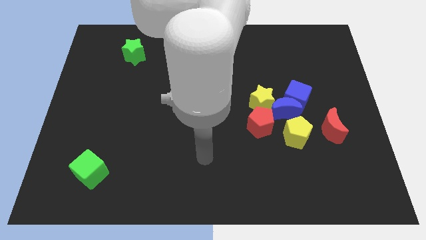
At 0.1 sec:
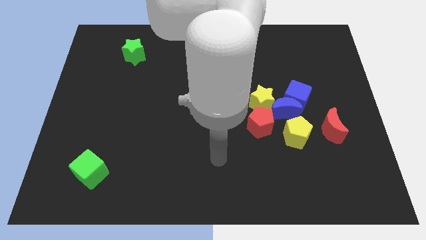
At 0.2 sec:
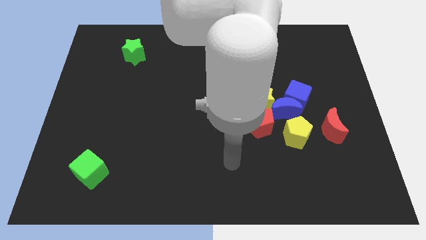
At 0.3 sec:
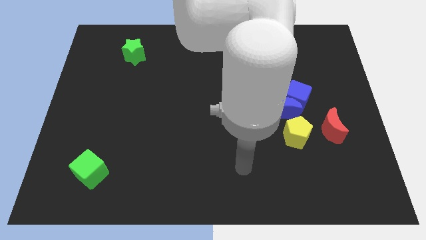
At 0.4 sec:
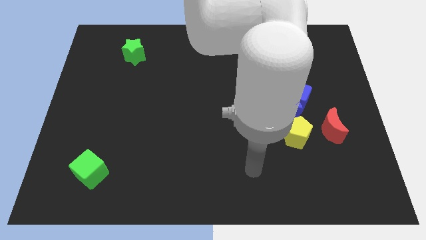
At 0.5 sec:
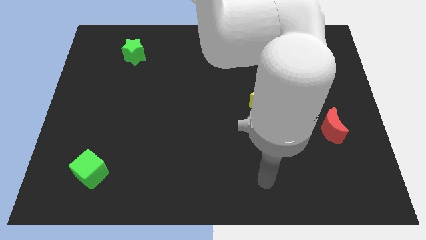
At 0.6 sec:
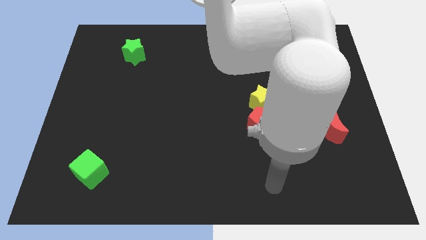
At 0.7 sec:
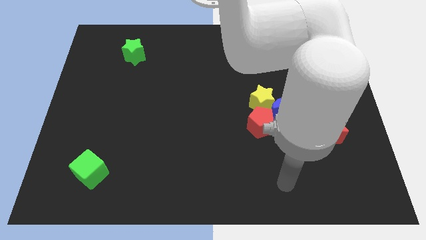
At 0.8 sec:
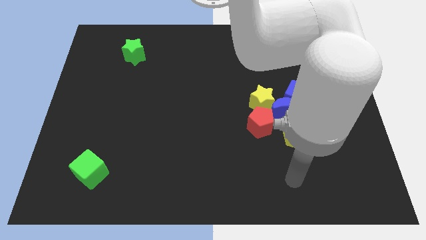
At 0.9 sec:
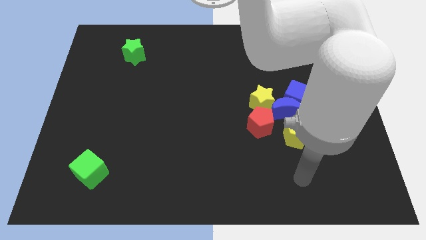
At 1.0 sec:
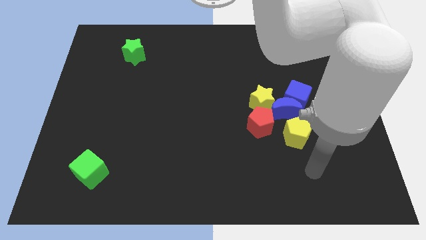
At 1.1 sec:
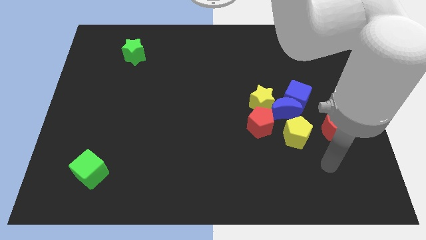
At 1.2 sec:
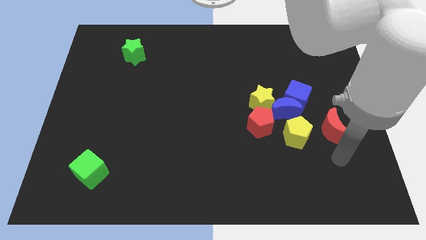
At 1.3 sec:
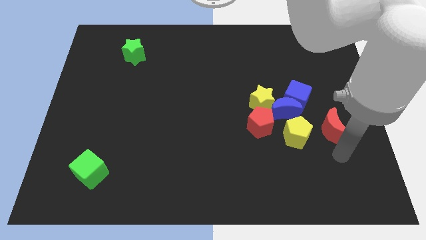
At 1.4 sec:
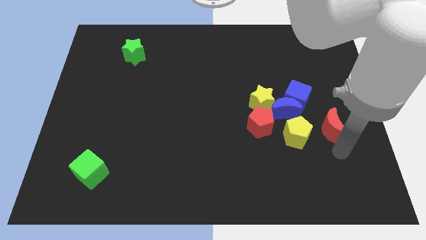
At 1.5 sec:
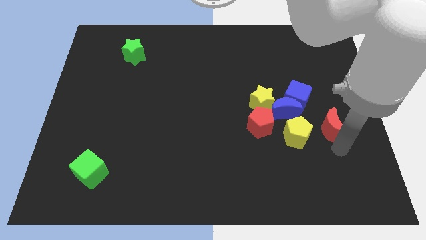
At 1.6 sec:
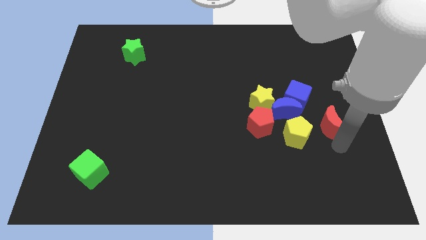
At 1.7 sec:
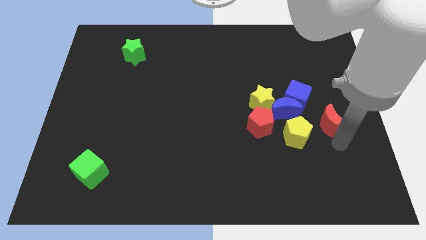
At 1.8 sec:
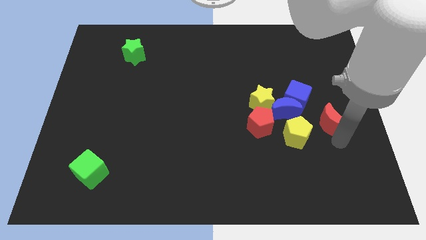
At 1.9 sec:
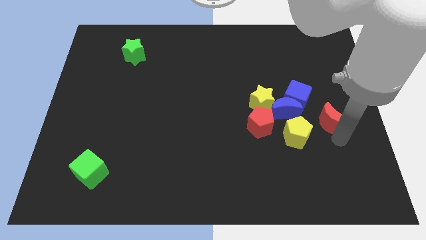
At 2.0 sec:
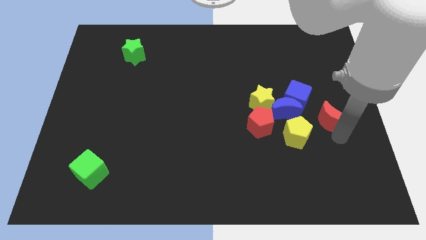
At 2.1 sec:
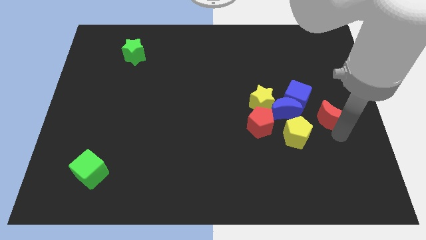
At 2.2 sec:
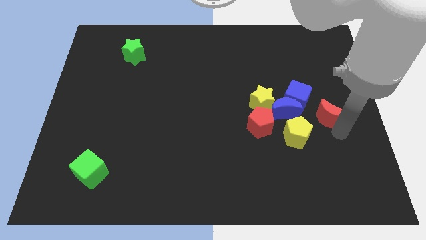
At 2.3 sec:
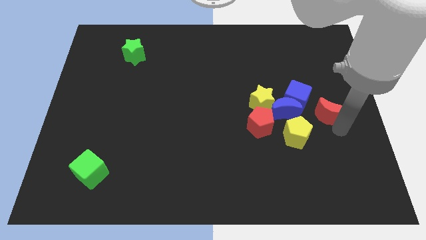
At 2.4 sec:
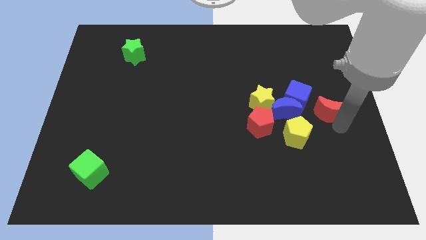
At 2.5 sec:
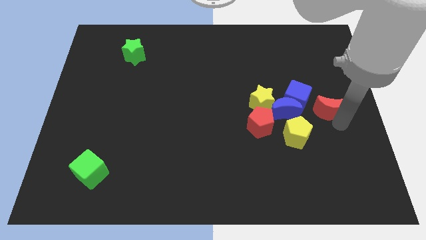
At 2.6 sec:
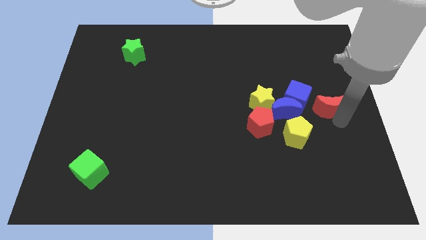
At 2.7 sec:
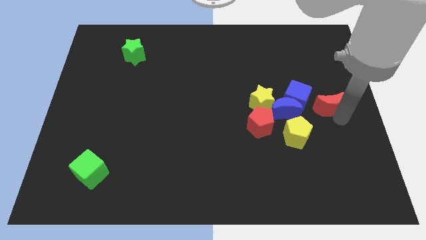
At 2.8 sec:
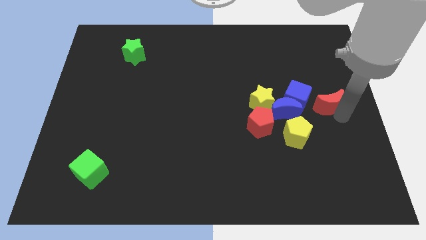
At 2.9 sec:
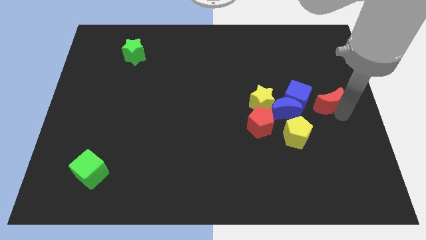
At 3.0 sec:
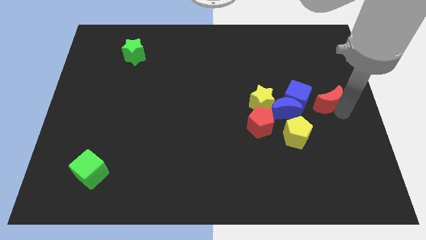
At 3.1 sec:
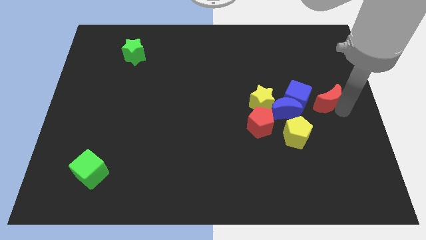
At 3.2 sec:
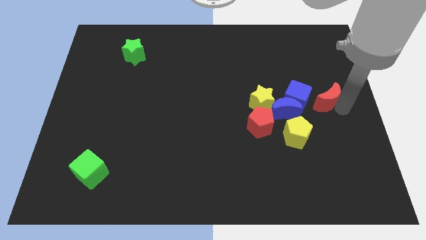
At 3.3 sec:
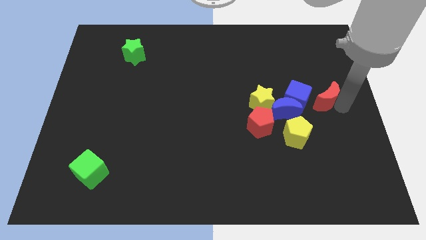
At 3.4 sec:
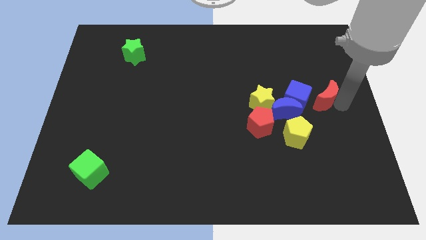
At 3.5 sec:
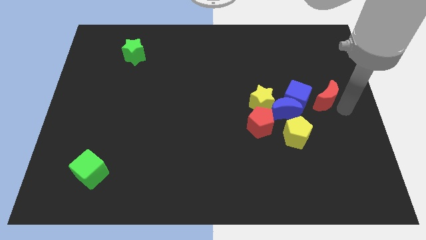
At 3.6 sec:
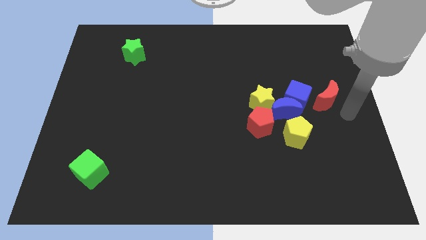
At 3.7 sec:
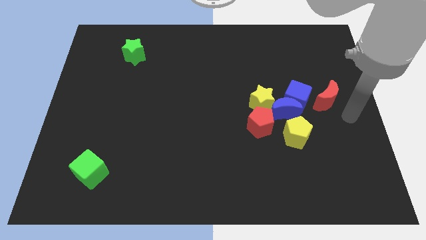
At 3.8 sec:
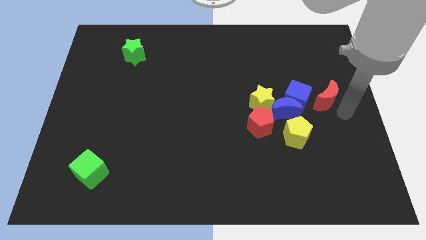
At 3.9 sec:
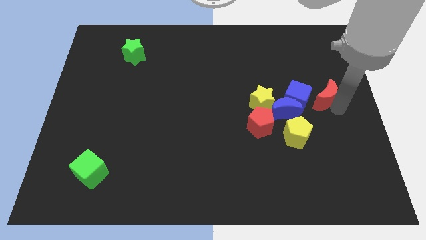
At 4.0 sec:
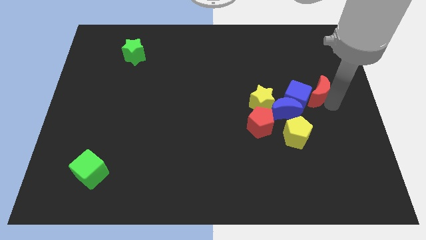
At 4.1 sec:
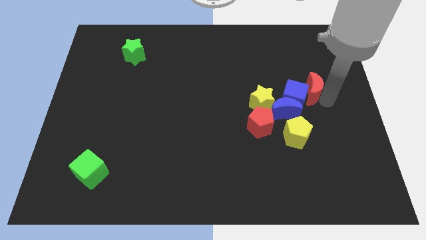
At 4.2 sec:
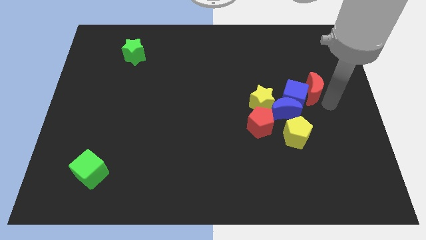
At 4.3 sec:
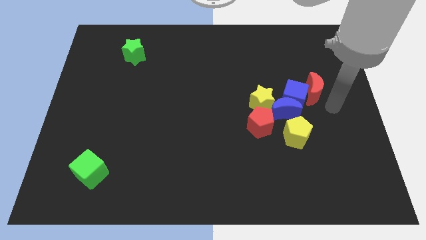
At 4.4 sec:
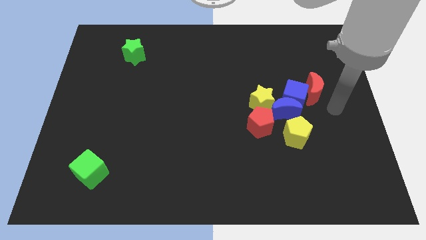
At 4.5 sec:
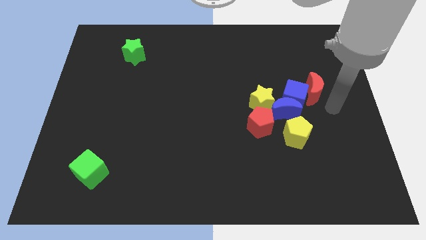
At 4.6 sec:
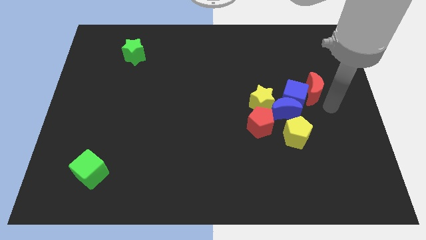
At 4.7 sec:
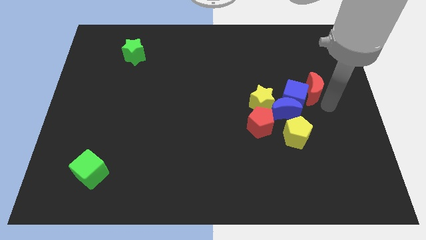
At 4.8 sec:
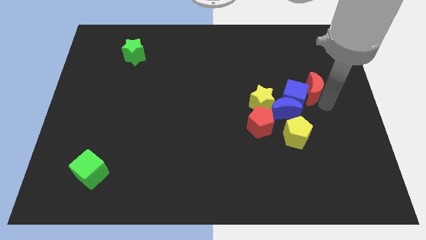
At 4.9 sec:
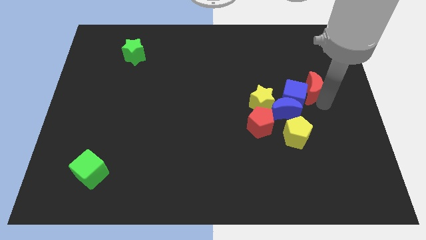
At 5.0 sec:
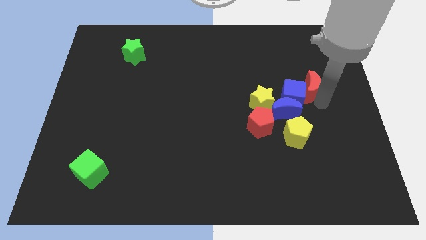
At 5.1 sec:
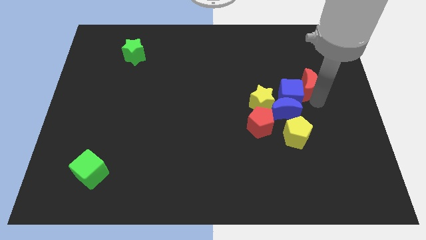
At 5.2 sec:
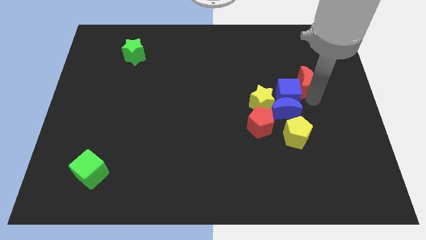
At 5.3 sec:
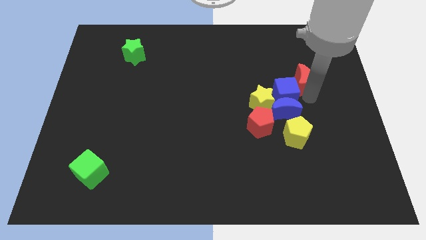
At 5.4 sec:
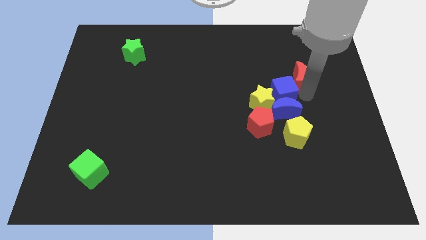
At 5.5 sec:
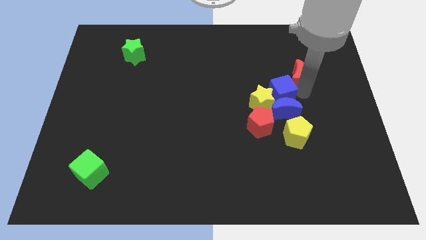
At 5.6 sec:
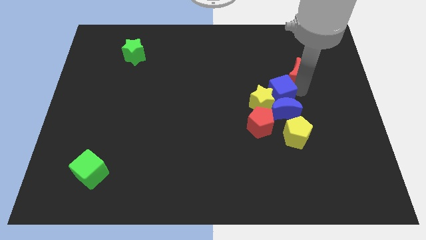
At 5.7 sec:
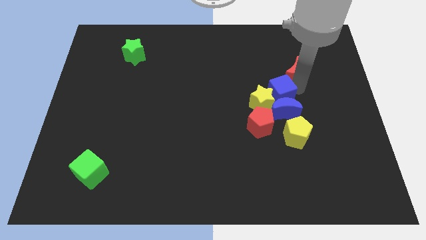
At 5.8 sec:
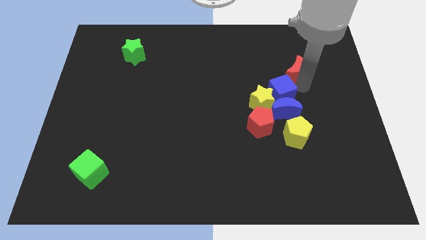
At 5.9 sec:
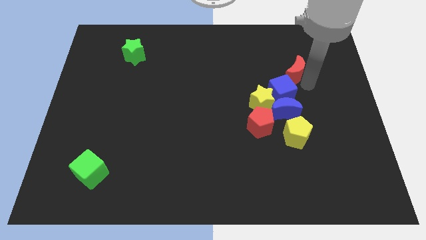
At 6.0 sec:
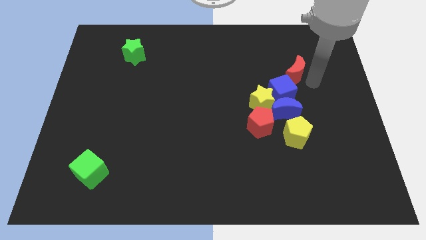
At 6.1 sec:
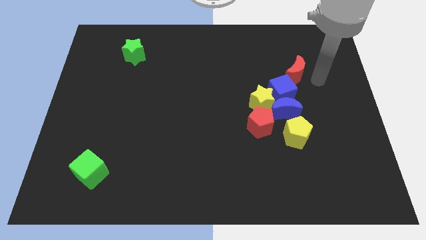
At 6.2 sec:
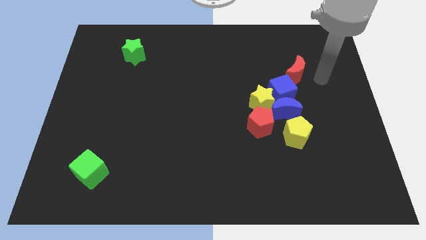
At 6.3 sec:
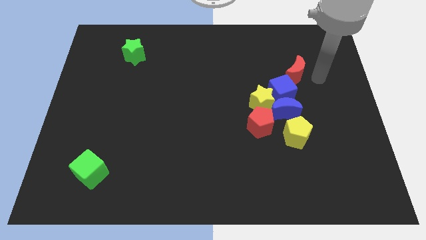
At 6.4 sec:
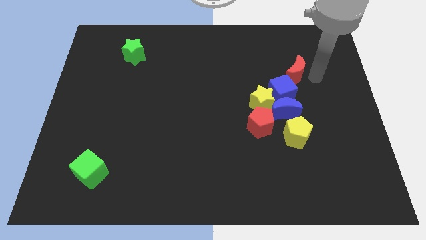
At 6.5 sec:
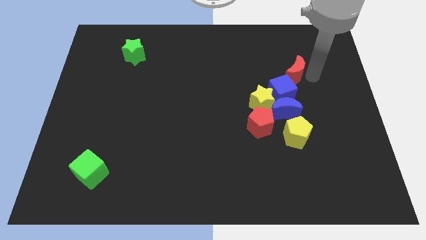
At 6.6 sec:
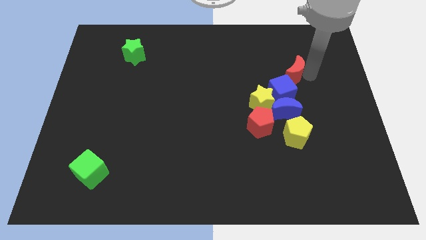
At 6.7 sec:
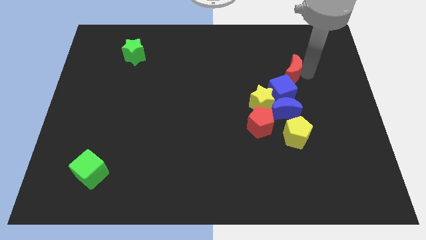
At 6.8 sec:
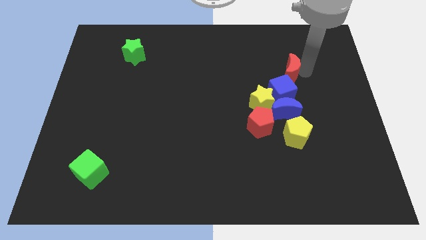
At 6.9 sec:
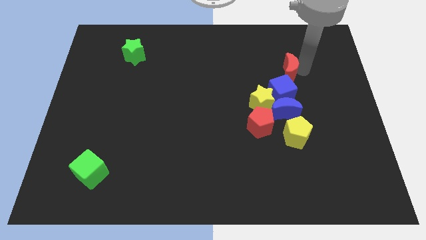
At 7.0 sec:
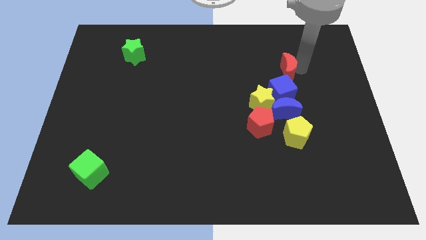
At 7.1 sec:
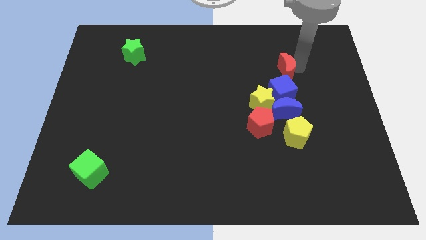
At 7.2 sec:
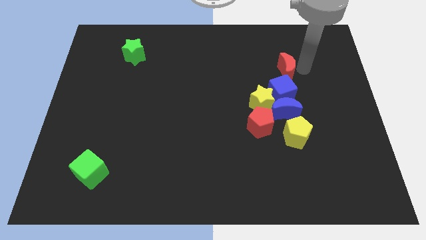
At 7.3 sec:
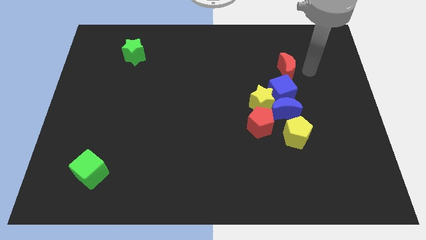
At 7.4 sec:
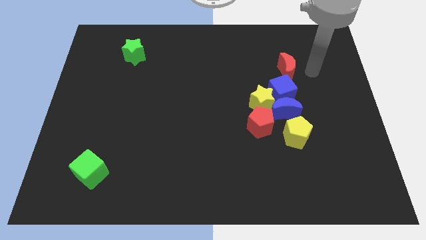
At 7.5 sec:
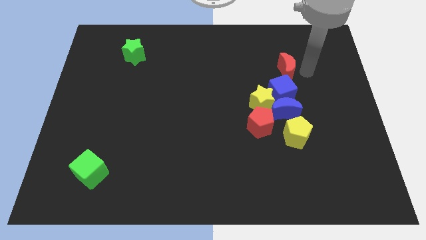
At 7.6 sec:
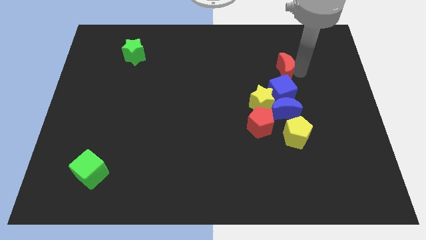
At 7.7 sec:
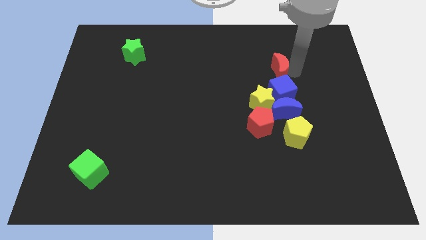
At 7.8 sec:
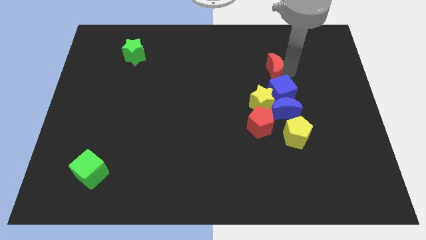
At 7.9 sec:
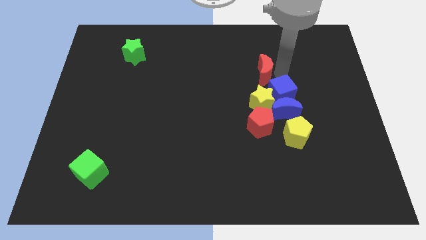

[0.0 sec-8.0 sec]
push the red moon upwards and to the left diagonally
